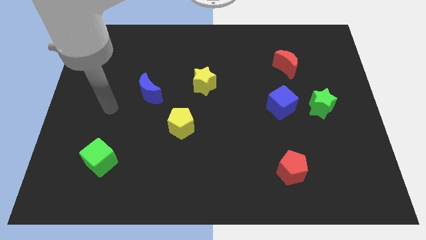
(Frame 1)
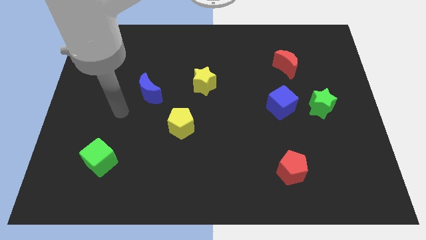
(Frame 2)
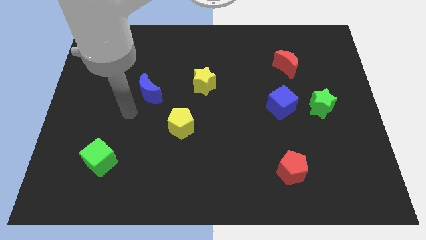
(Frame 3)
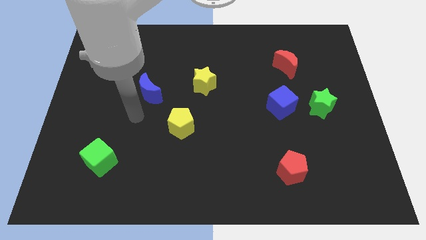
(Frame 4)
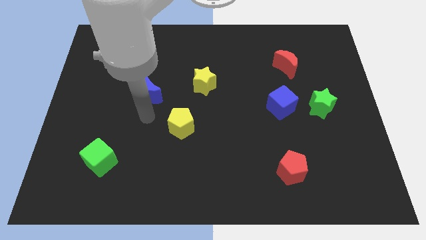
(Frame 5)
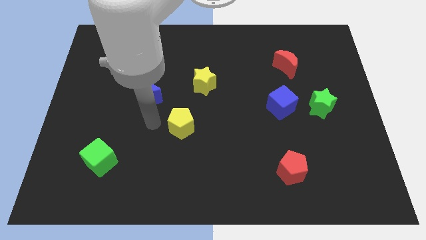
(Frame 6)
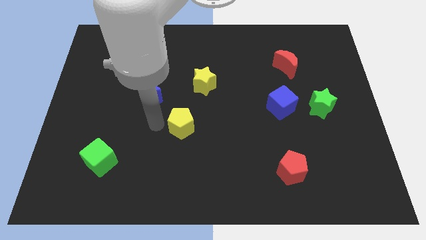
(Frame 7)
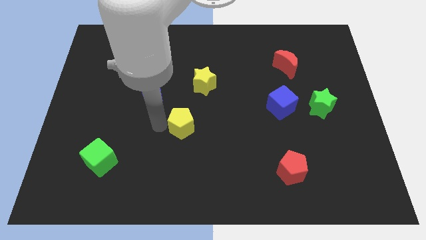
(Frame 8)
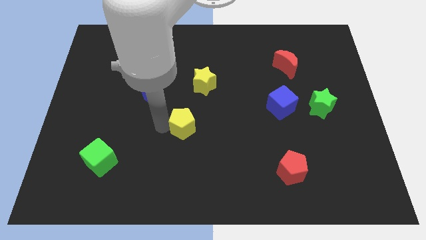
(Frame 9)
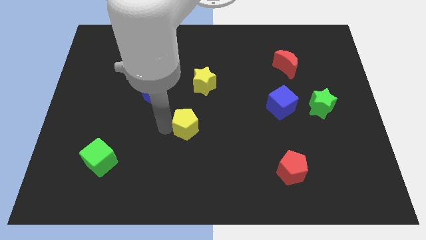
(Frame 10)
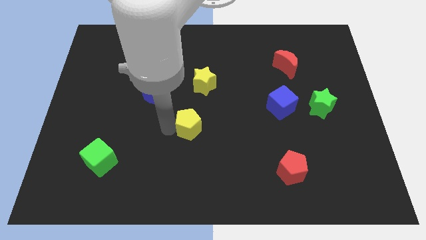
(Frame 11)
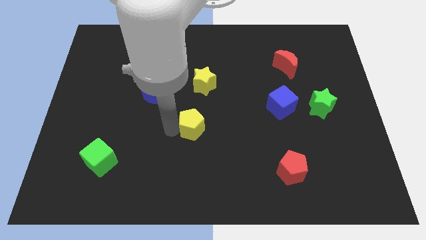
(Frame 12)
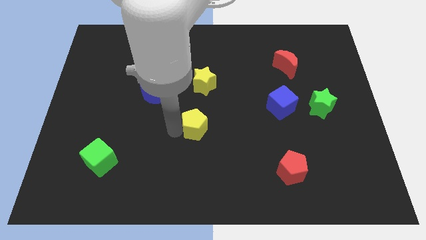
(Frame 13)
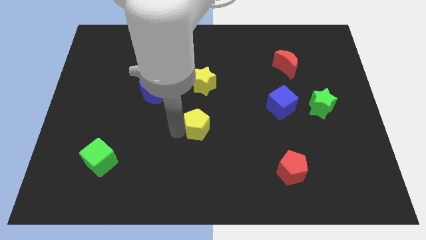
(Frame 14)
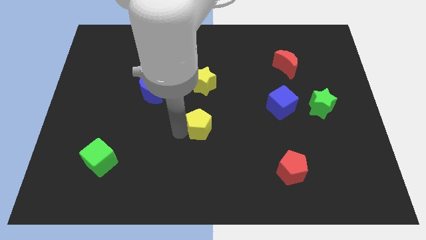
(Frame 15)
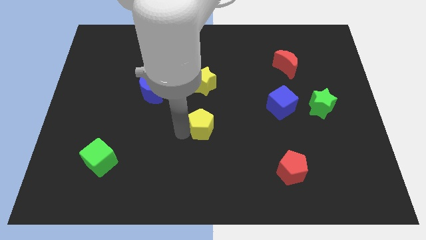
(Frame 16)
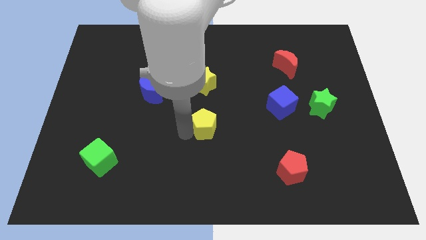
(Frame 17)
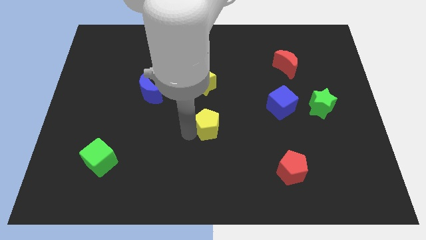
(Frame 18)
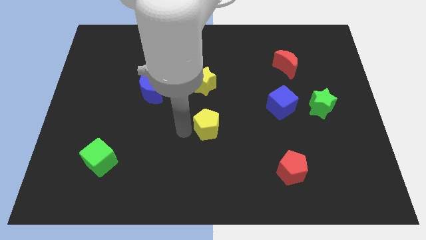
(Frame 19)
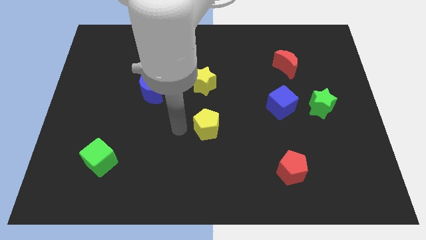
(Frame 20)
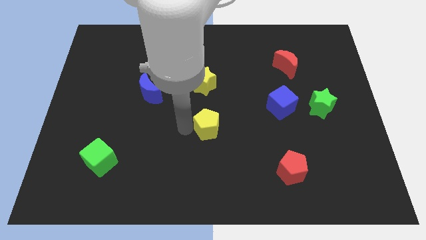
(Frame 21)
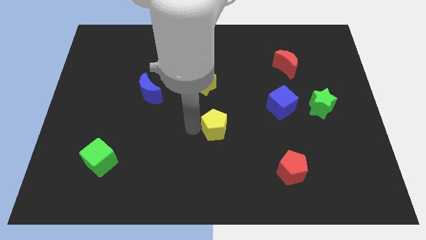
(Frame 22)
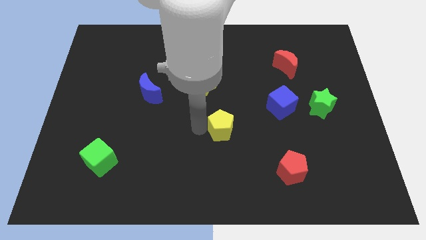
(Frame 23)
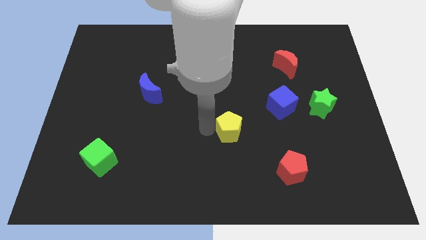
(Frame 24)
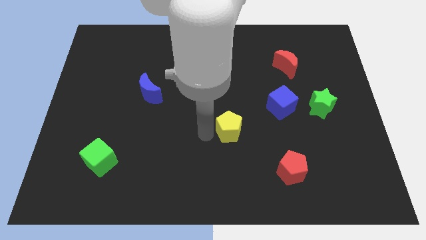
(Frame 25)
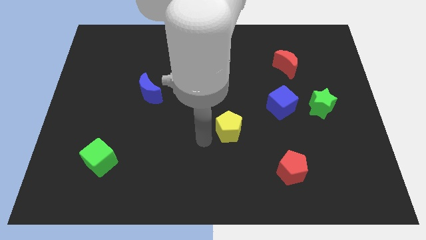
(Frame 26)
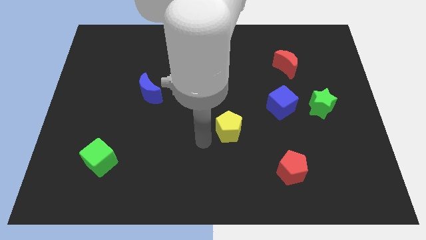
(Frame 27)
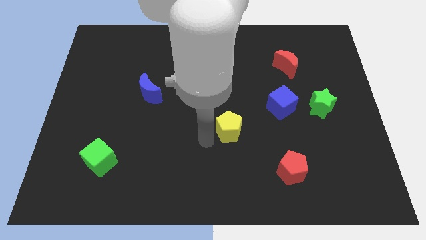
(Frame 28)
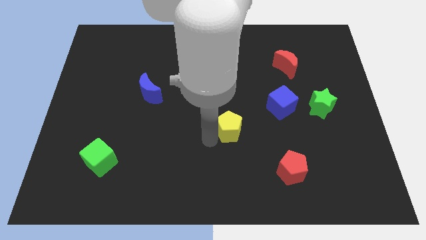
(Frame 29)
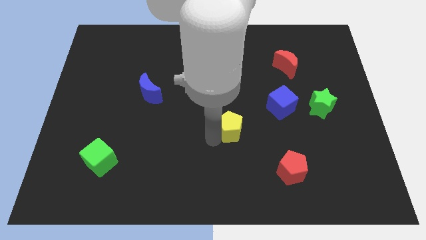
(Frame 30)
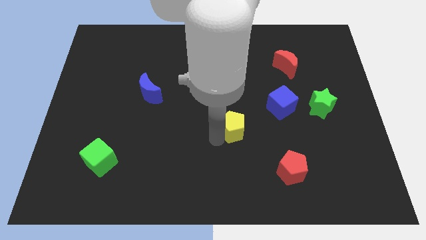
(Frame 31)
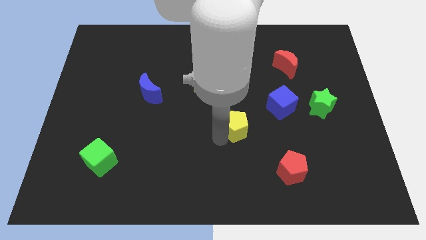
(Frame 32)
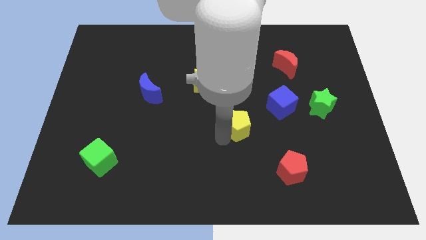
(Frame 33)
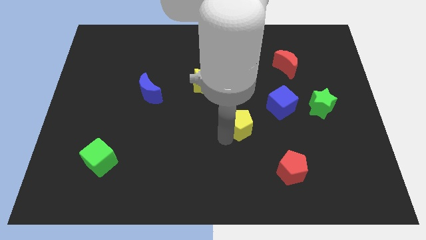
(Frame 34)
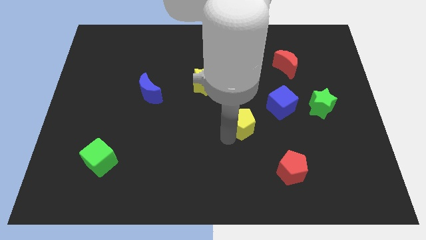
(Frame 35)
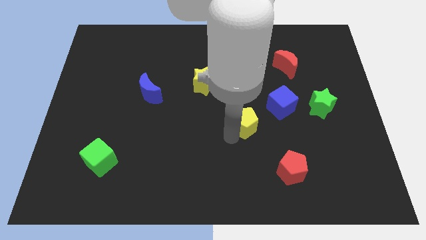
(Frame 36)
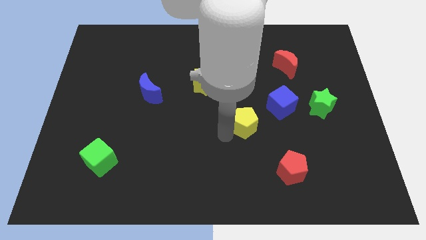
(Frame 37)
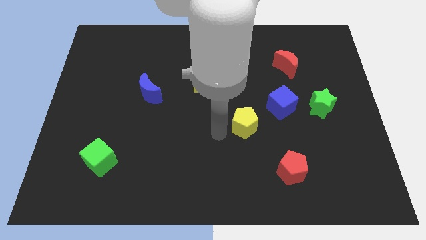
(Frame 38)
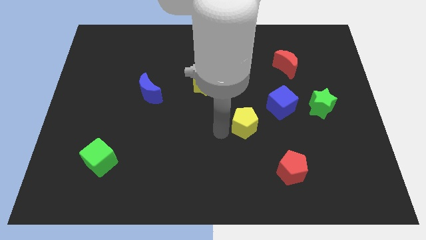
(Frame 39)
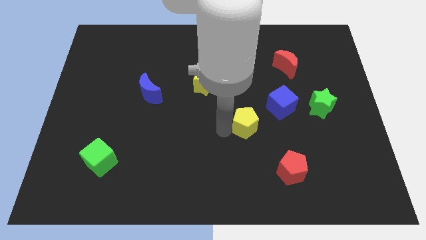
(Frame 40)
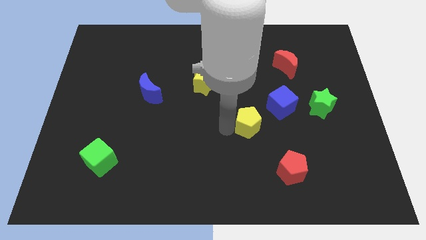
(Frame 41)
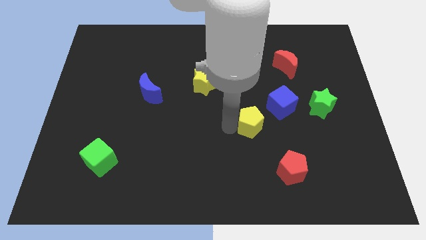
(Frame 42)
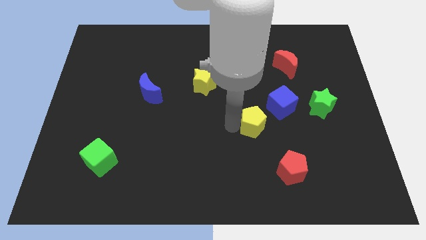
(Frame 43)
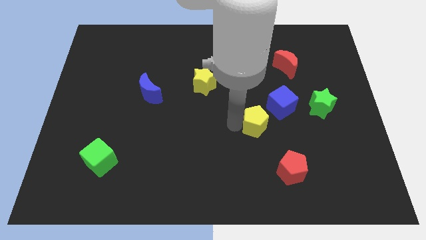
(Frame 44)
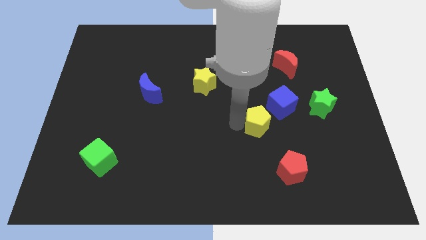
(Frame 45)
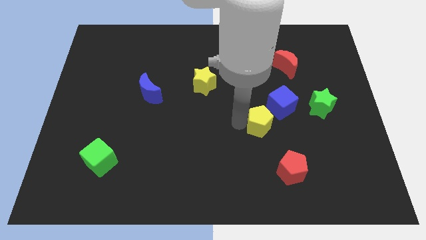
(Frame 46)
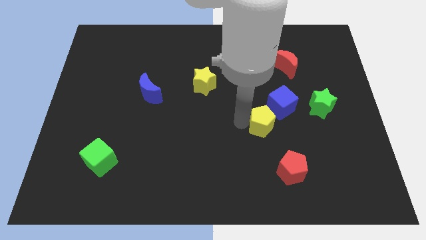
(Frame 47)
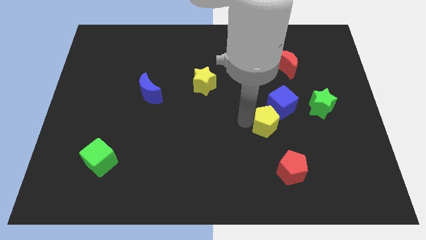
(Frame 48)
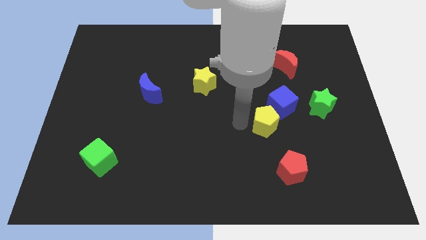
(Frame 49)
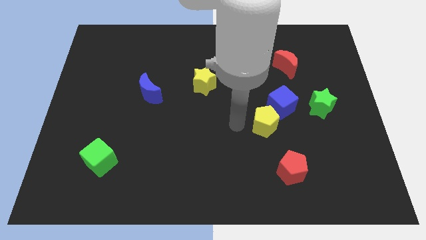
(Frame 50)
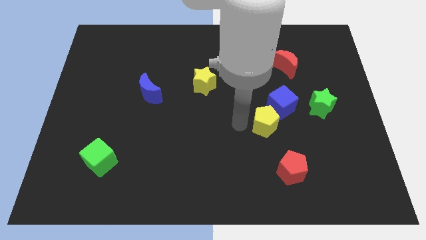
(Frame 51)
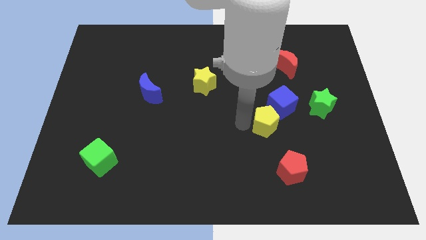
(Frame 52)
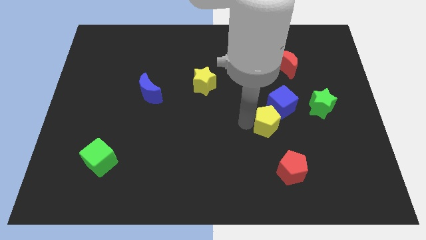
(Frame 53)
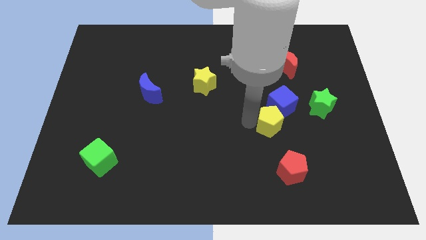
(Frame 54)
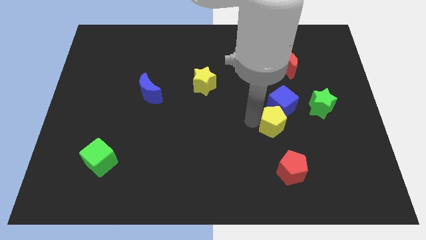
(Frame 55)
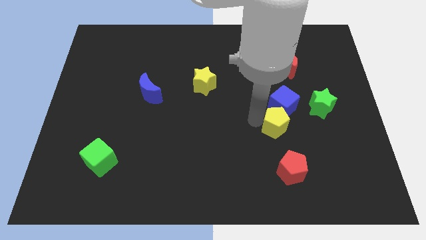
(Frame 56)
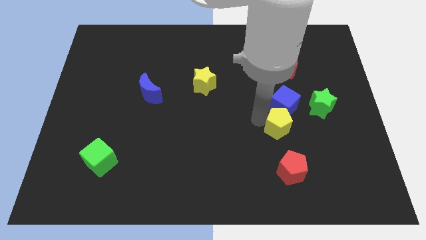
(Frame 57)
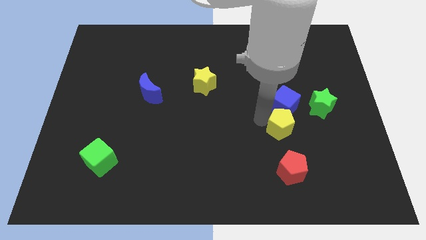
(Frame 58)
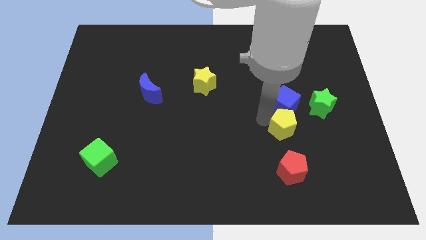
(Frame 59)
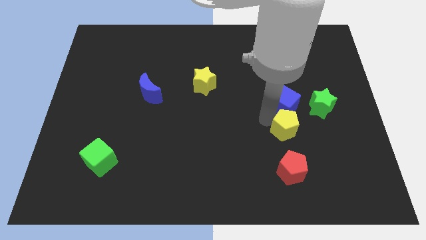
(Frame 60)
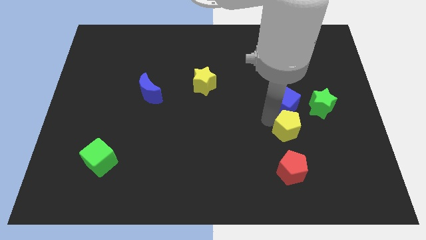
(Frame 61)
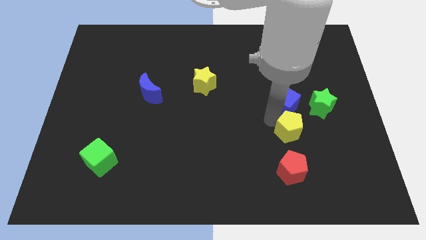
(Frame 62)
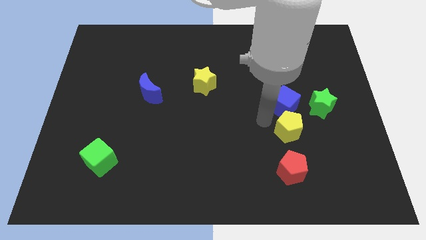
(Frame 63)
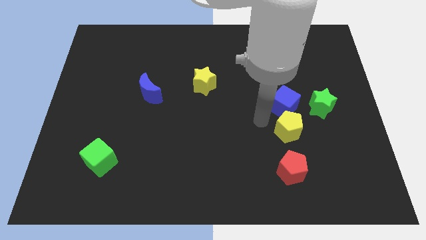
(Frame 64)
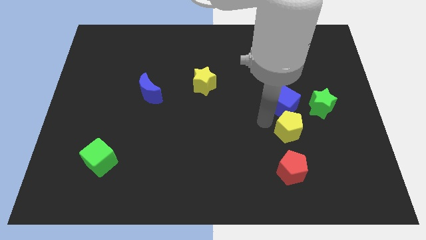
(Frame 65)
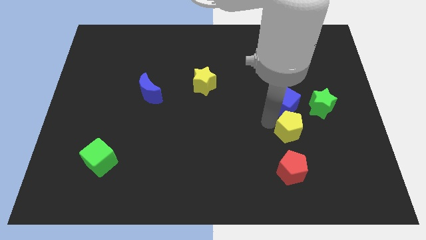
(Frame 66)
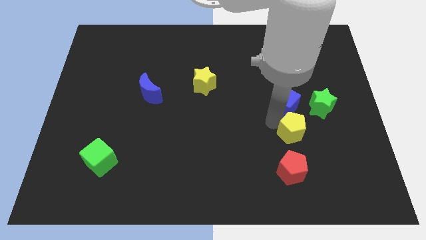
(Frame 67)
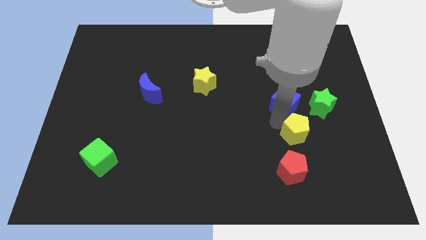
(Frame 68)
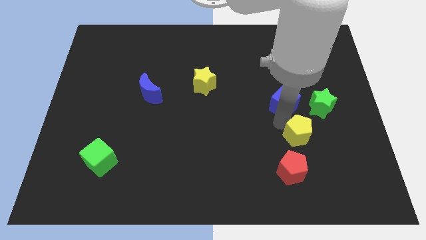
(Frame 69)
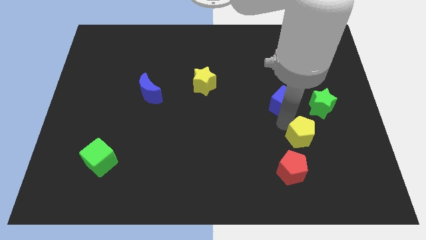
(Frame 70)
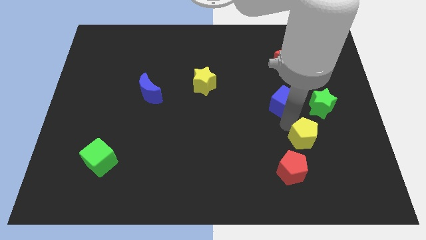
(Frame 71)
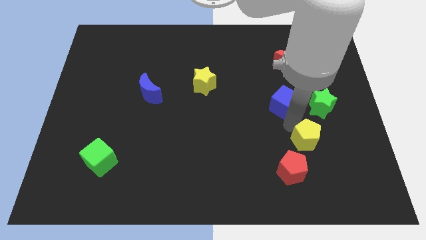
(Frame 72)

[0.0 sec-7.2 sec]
push the yellow pentagon below the green star
